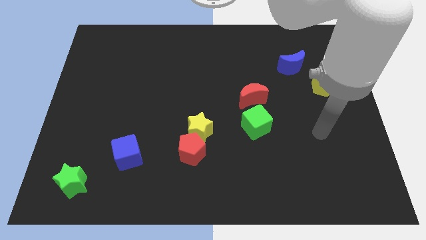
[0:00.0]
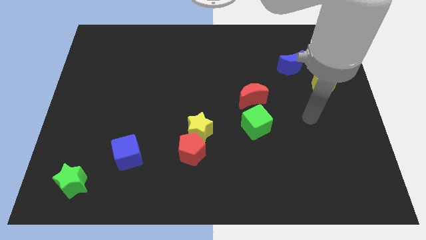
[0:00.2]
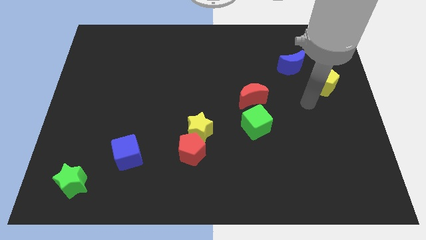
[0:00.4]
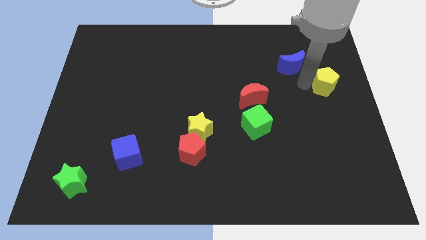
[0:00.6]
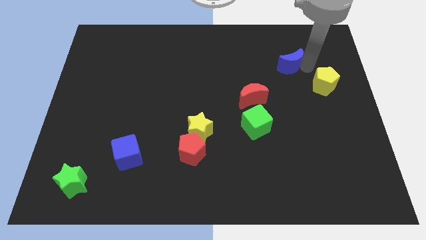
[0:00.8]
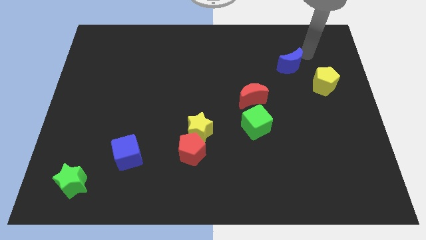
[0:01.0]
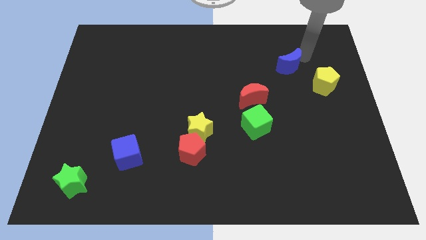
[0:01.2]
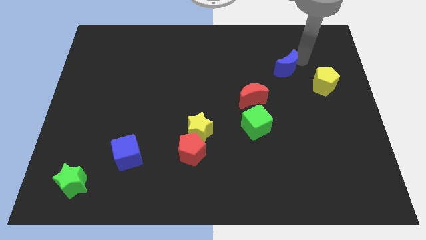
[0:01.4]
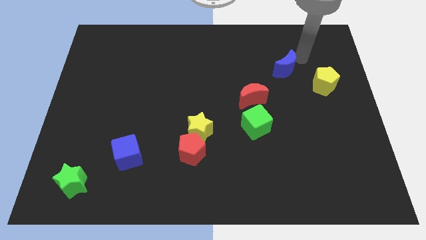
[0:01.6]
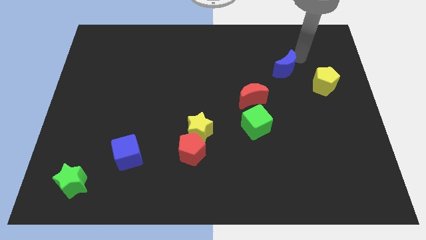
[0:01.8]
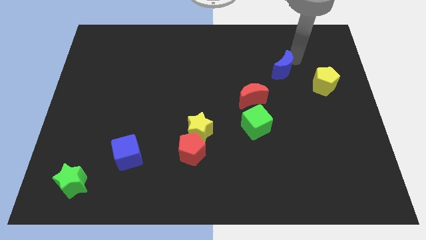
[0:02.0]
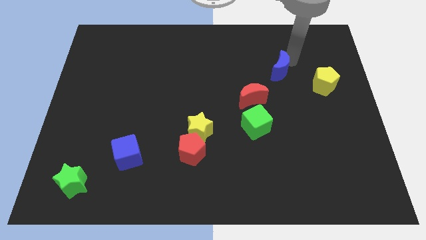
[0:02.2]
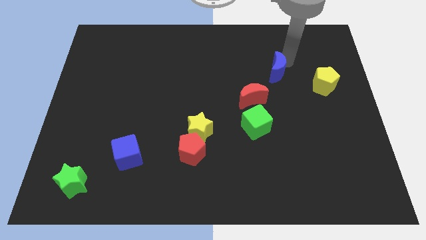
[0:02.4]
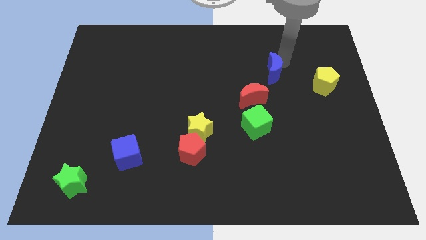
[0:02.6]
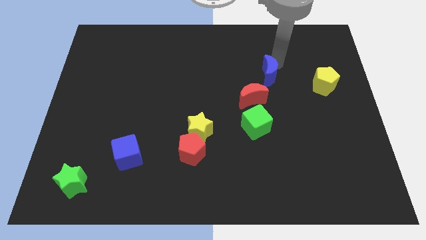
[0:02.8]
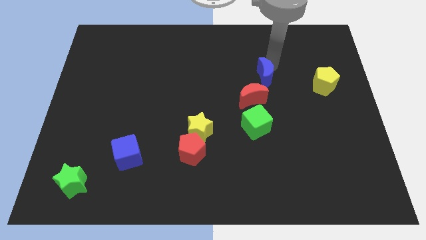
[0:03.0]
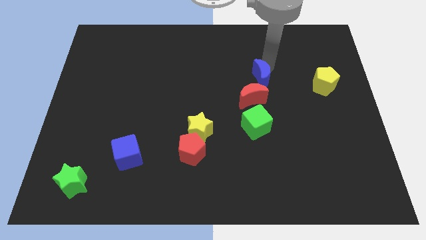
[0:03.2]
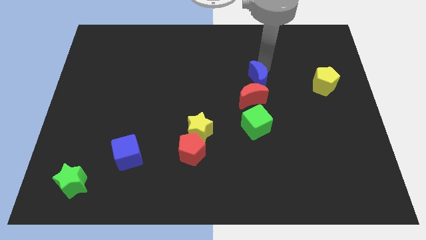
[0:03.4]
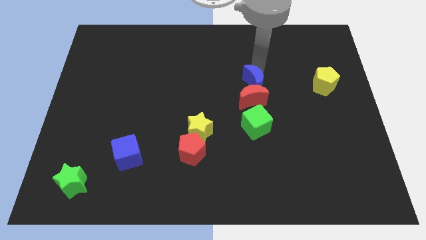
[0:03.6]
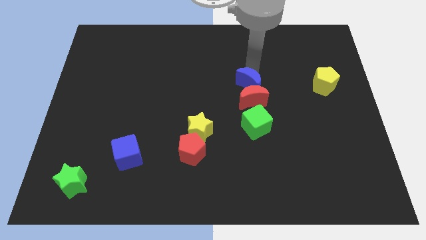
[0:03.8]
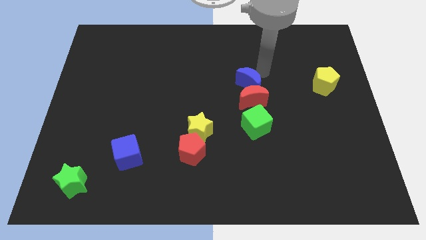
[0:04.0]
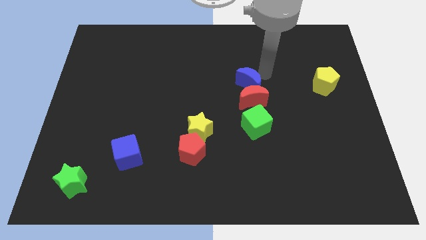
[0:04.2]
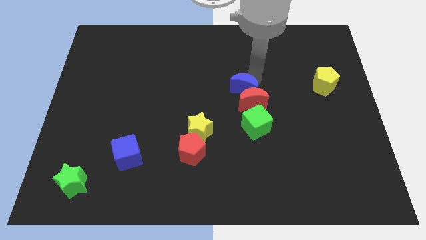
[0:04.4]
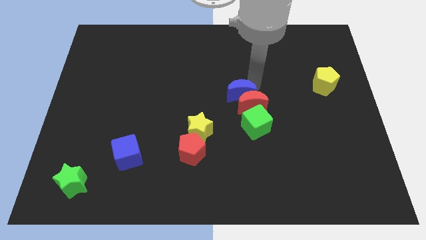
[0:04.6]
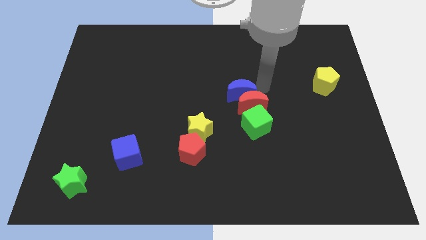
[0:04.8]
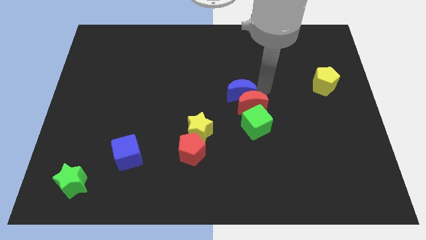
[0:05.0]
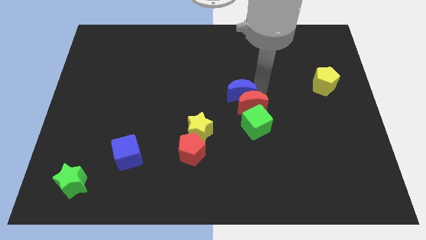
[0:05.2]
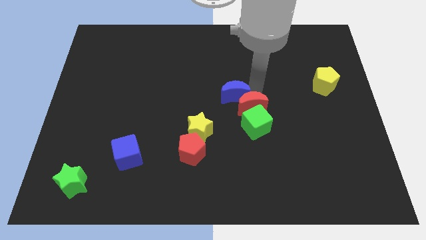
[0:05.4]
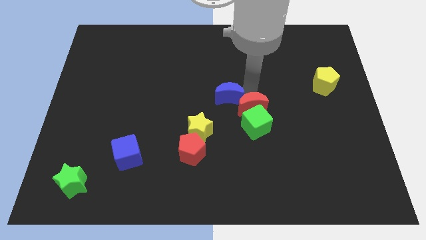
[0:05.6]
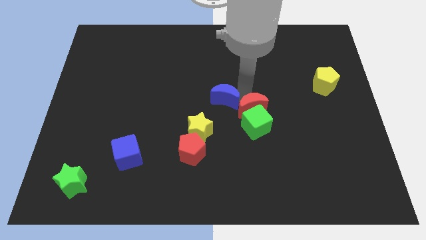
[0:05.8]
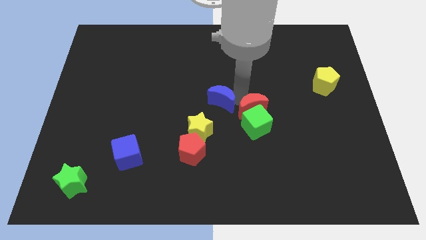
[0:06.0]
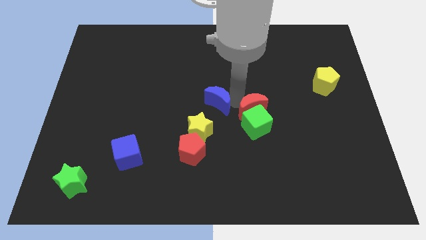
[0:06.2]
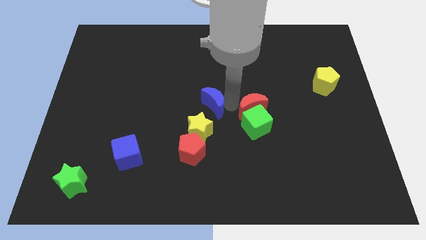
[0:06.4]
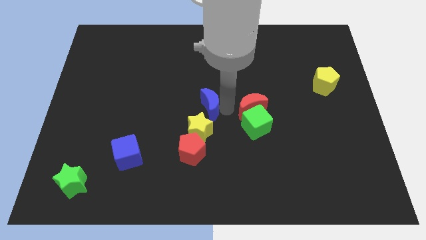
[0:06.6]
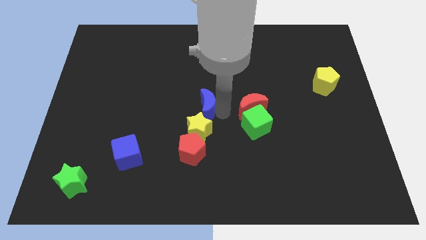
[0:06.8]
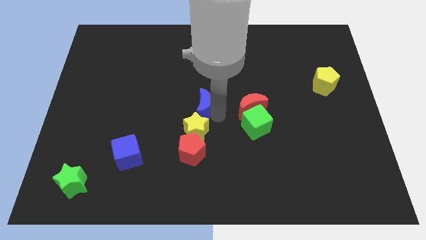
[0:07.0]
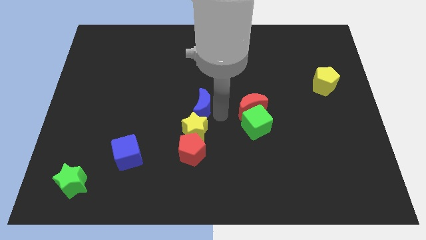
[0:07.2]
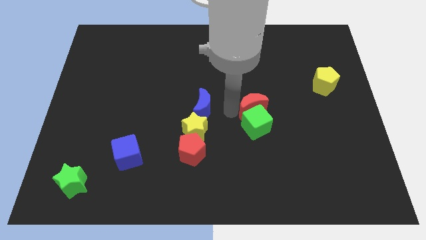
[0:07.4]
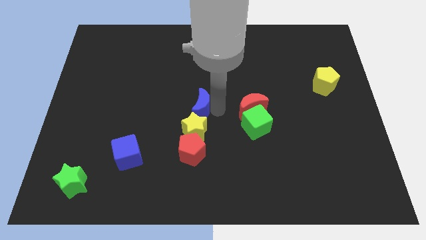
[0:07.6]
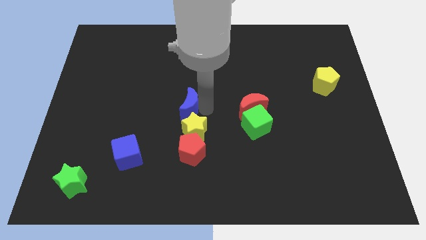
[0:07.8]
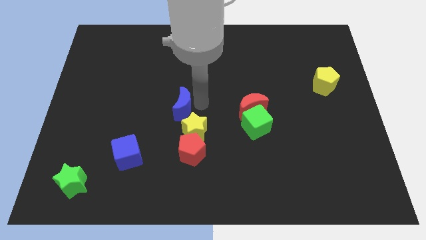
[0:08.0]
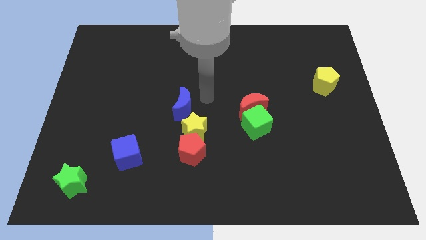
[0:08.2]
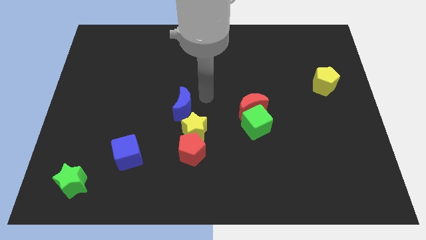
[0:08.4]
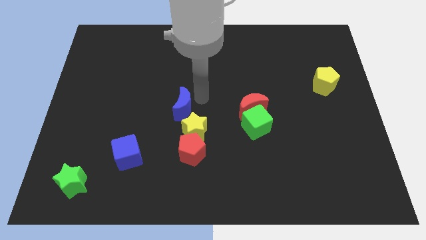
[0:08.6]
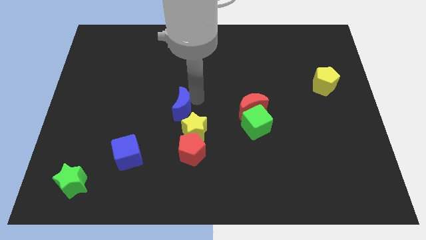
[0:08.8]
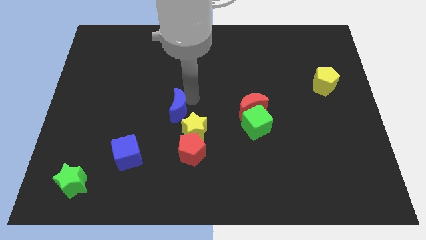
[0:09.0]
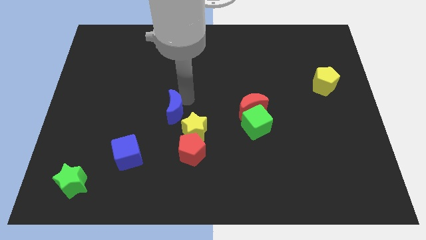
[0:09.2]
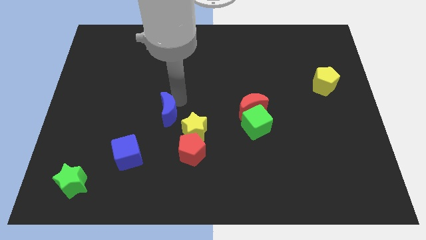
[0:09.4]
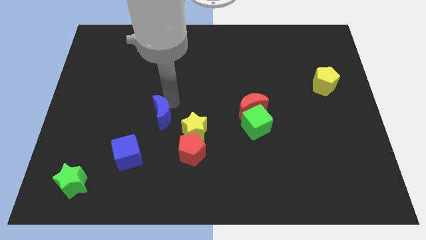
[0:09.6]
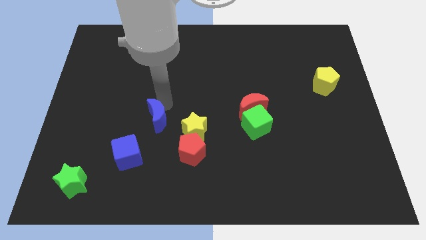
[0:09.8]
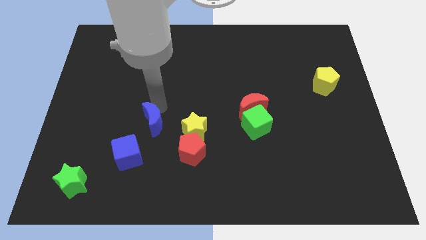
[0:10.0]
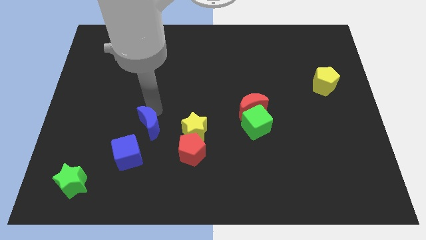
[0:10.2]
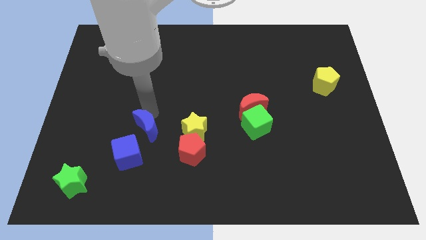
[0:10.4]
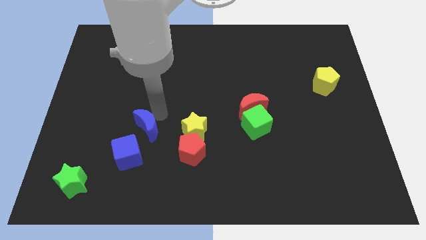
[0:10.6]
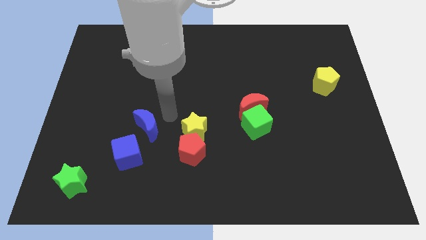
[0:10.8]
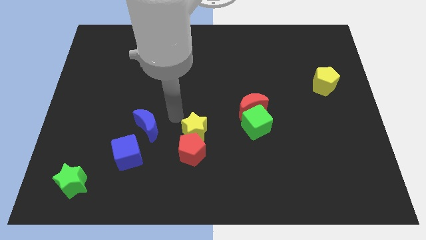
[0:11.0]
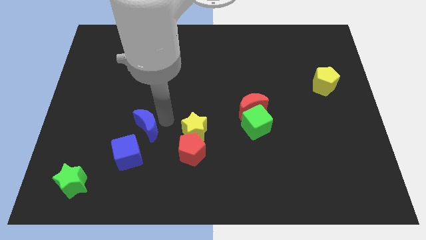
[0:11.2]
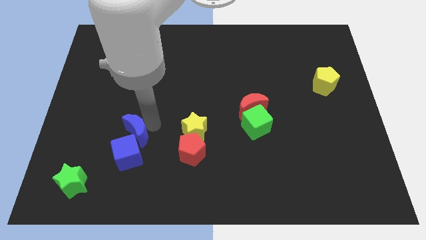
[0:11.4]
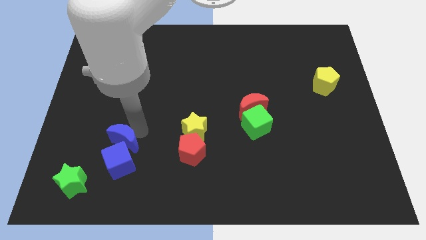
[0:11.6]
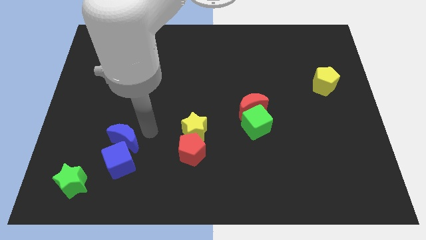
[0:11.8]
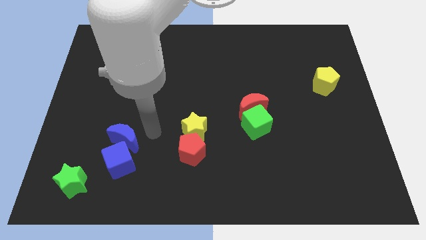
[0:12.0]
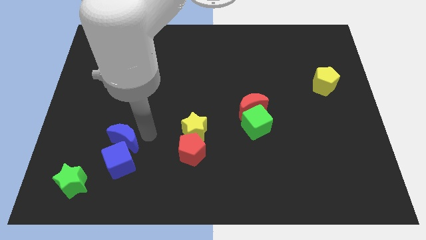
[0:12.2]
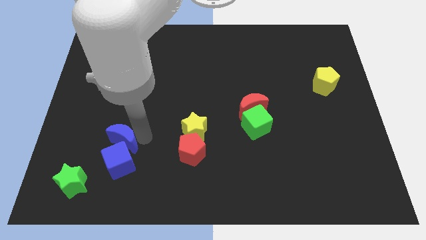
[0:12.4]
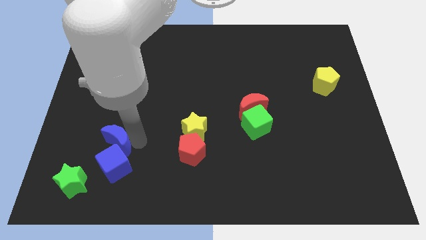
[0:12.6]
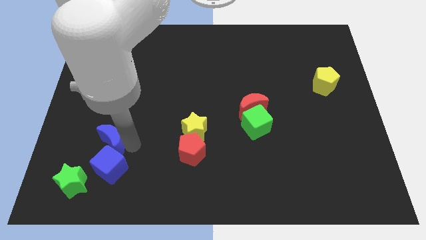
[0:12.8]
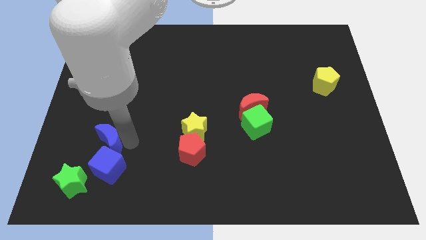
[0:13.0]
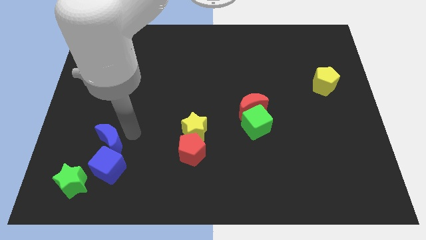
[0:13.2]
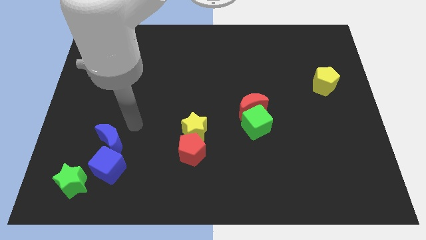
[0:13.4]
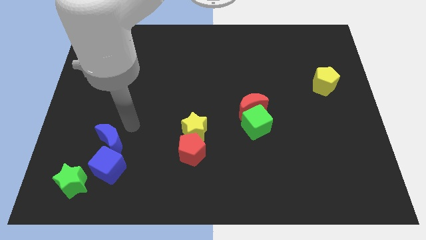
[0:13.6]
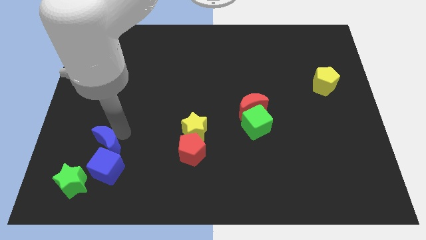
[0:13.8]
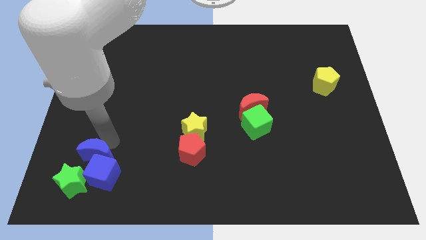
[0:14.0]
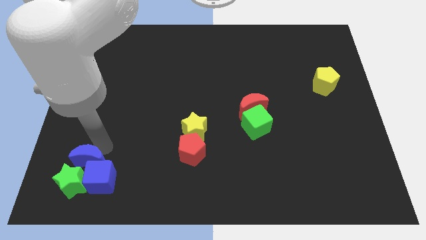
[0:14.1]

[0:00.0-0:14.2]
slide the blue moon to the green star

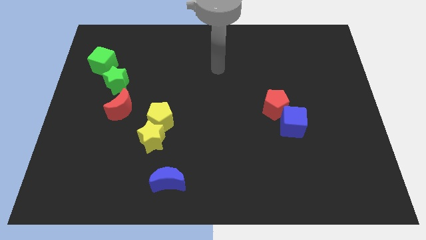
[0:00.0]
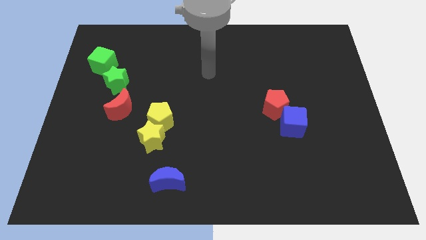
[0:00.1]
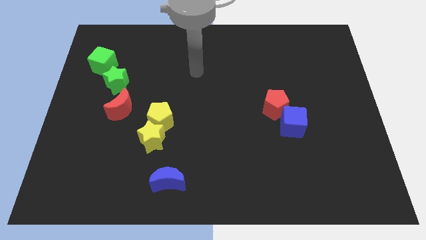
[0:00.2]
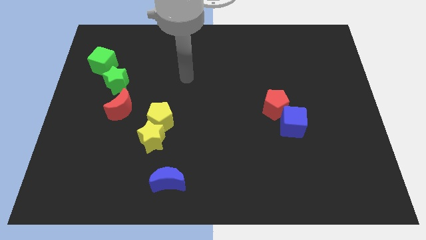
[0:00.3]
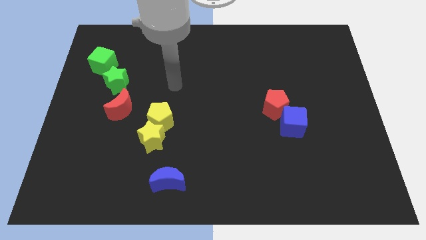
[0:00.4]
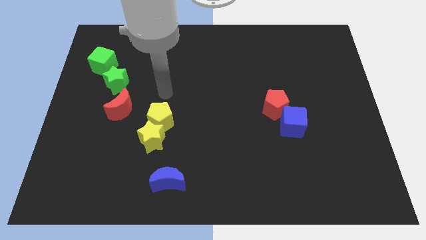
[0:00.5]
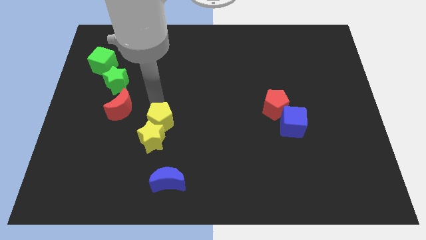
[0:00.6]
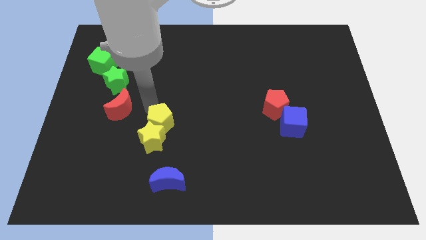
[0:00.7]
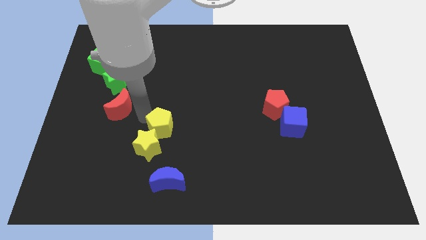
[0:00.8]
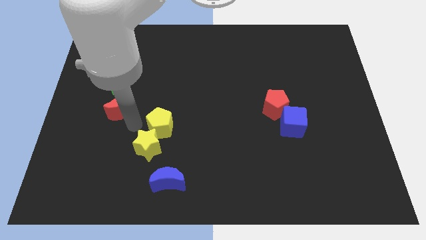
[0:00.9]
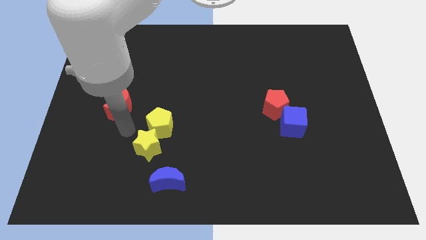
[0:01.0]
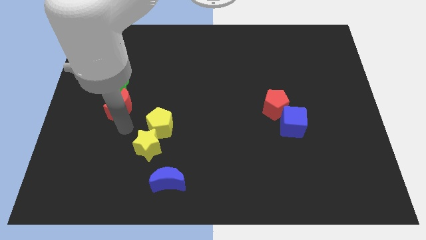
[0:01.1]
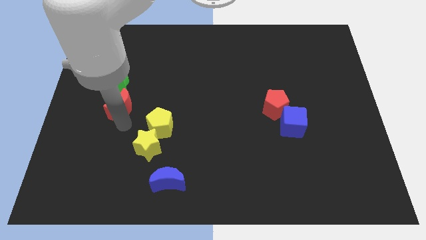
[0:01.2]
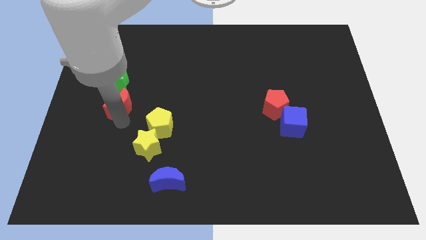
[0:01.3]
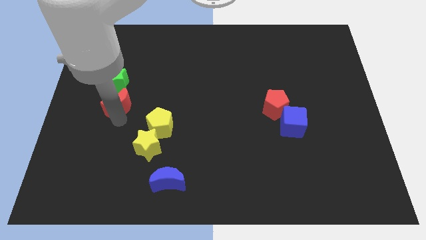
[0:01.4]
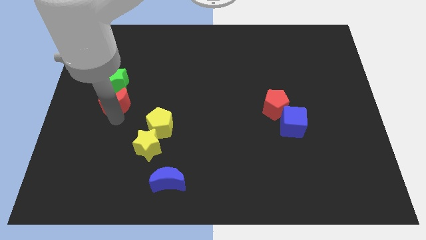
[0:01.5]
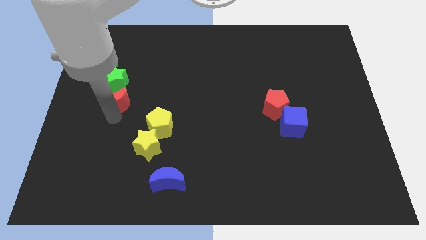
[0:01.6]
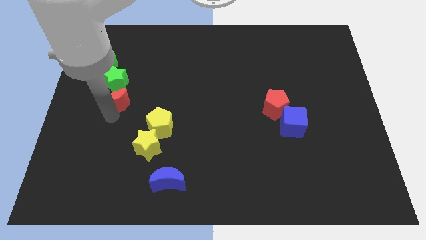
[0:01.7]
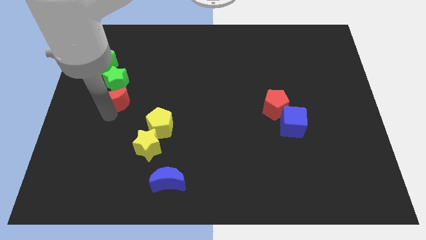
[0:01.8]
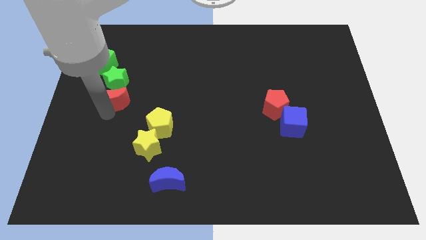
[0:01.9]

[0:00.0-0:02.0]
push the red moon to the green star
